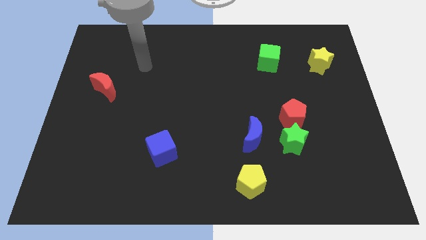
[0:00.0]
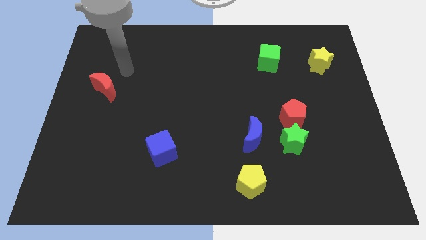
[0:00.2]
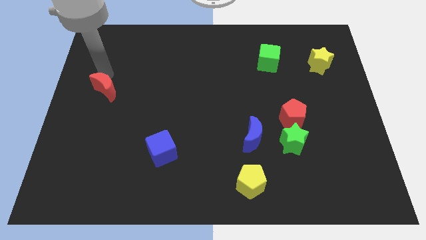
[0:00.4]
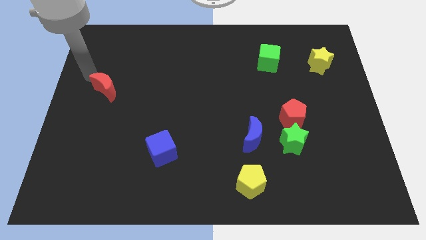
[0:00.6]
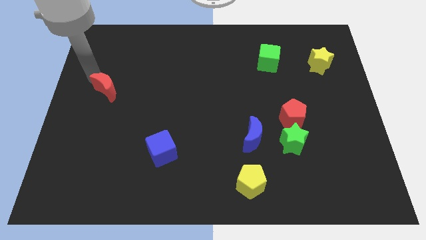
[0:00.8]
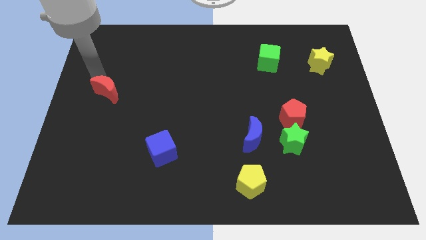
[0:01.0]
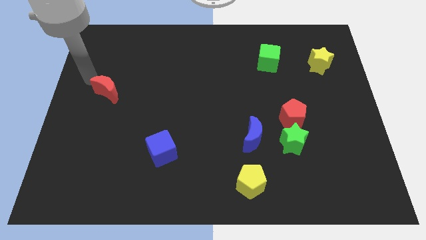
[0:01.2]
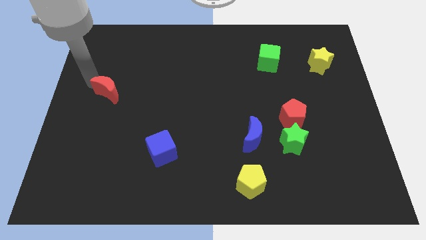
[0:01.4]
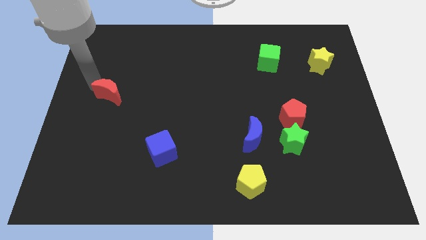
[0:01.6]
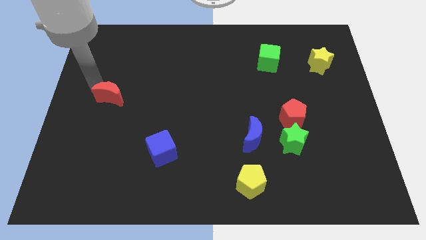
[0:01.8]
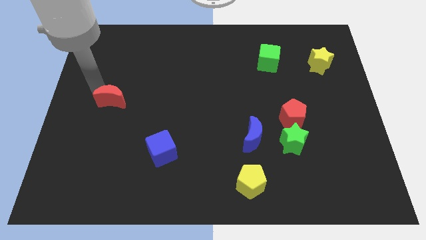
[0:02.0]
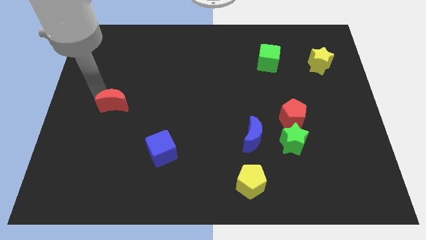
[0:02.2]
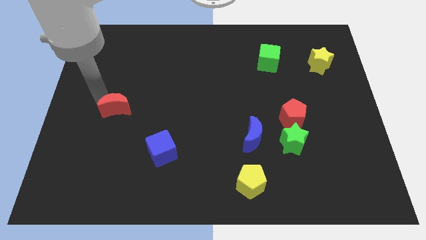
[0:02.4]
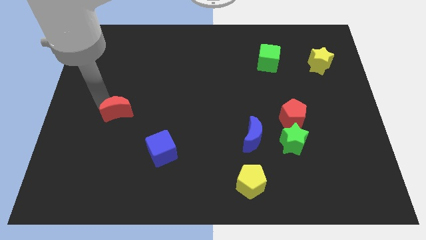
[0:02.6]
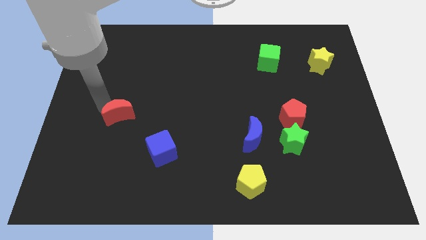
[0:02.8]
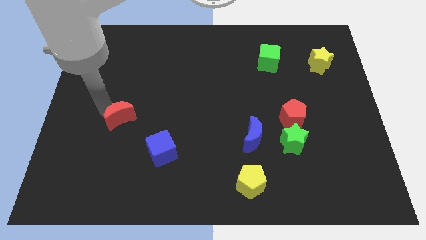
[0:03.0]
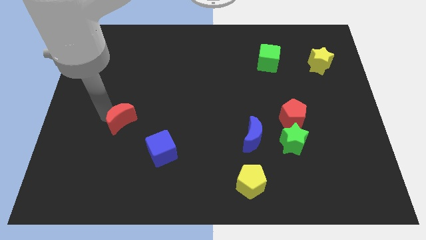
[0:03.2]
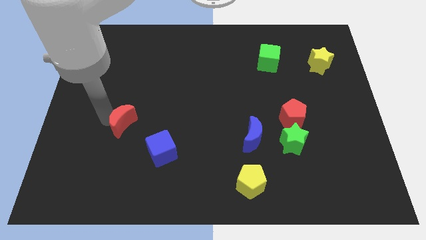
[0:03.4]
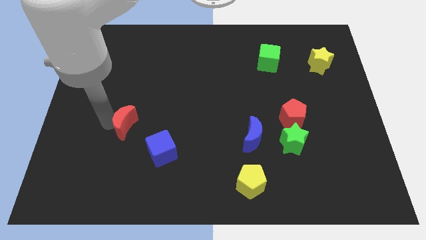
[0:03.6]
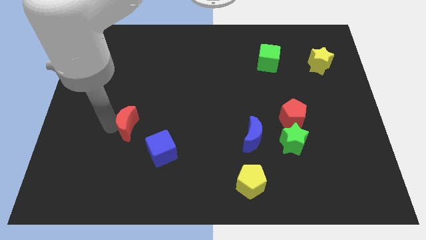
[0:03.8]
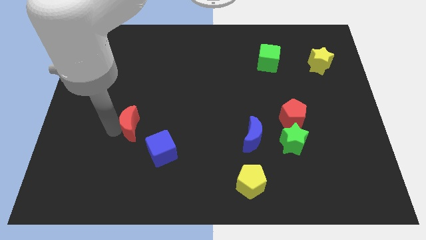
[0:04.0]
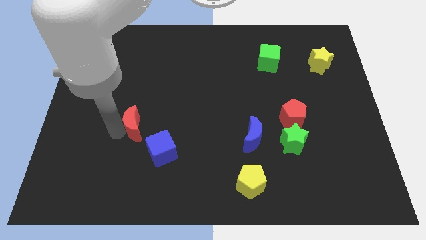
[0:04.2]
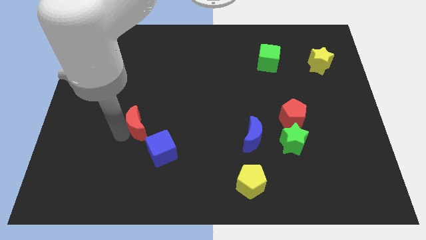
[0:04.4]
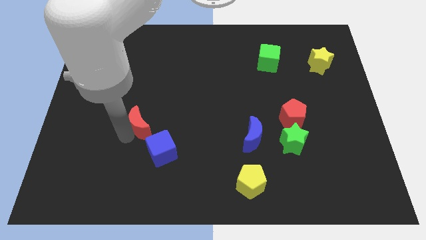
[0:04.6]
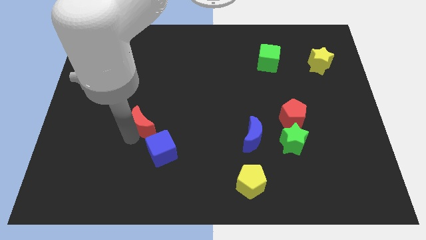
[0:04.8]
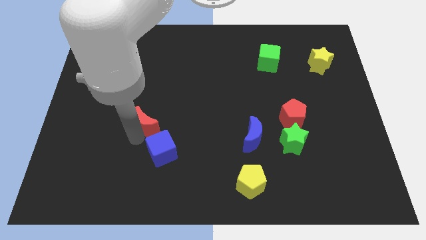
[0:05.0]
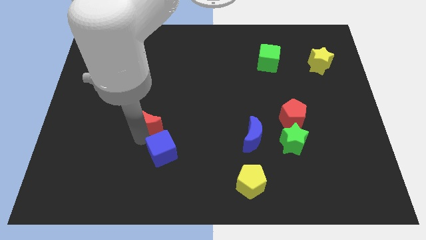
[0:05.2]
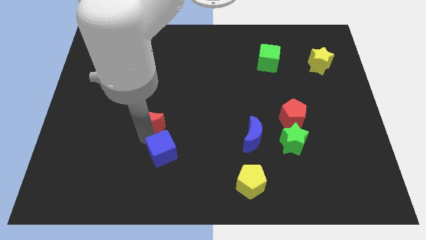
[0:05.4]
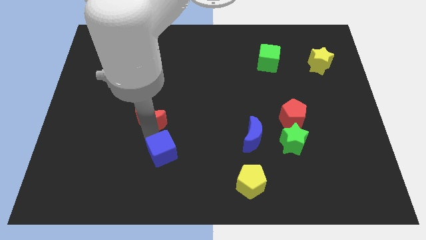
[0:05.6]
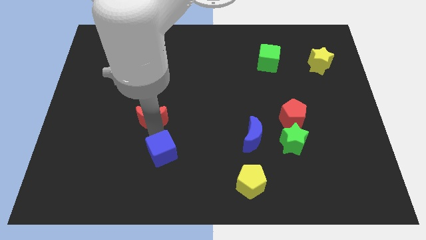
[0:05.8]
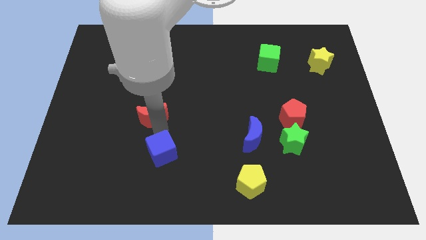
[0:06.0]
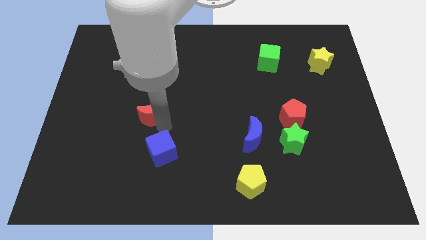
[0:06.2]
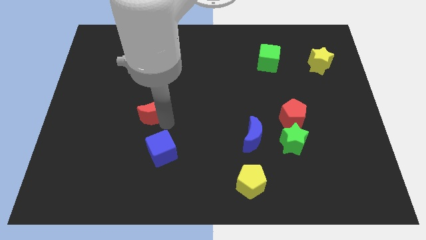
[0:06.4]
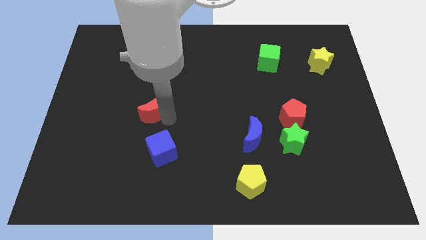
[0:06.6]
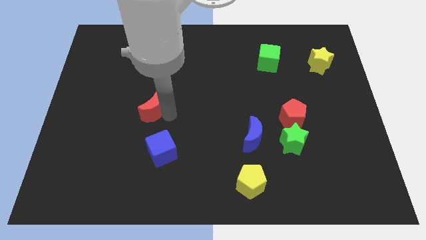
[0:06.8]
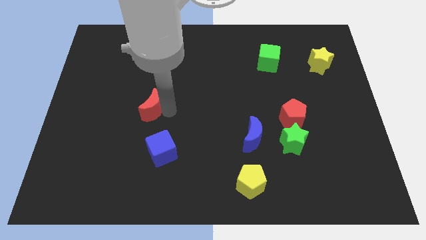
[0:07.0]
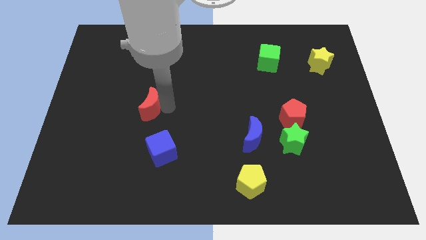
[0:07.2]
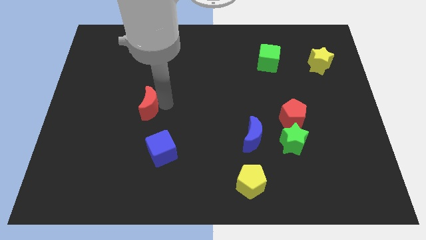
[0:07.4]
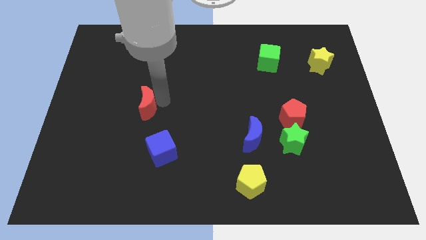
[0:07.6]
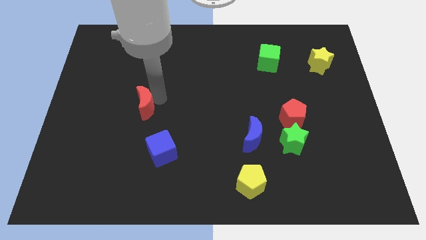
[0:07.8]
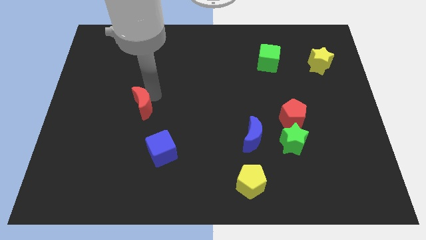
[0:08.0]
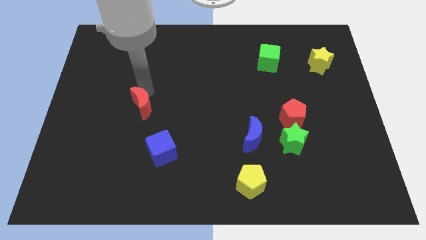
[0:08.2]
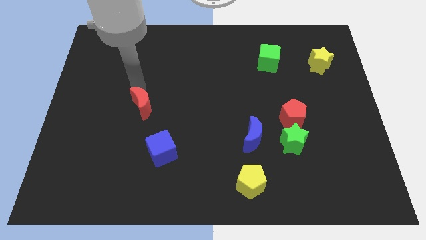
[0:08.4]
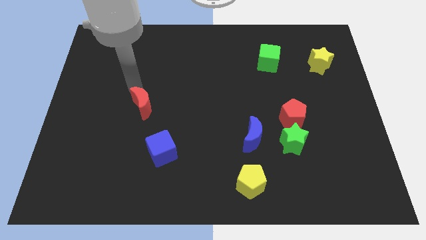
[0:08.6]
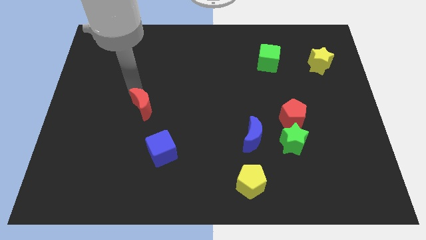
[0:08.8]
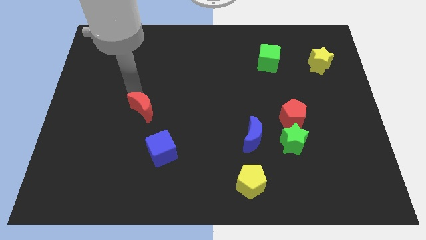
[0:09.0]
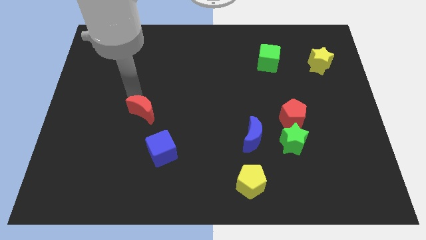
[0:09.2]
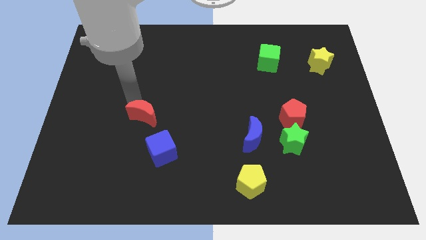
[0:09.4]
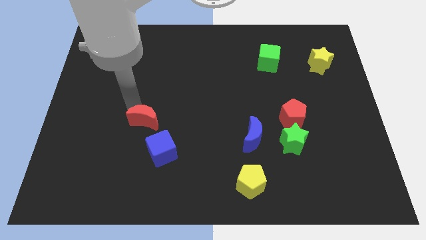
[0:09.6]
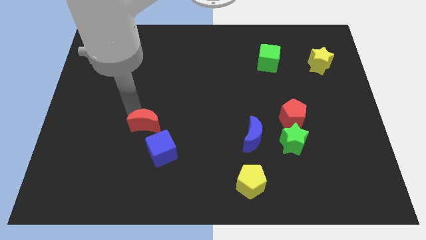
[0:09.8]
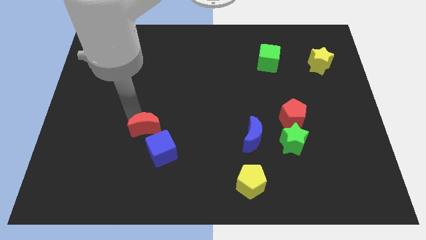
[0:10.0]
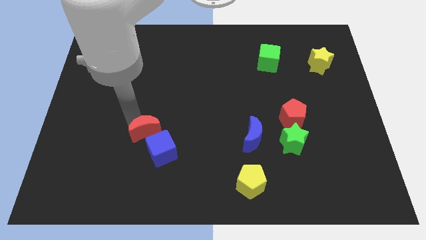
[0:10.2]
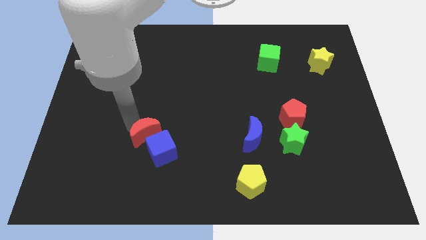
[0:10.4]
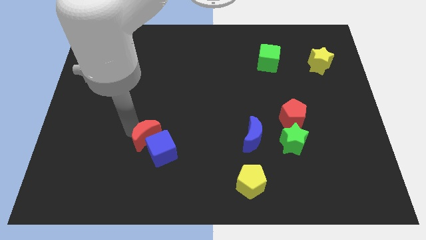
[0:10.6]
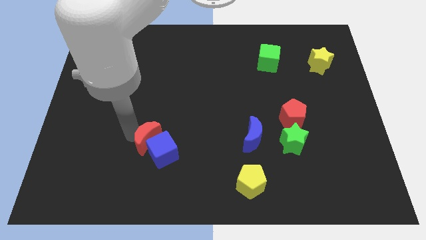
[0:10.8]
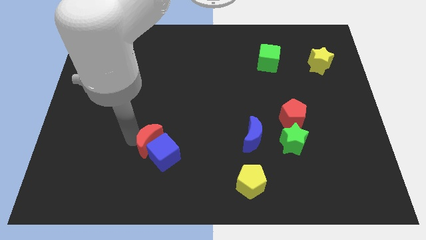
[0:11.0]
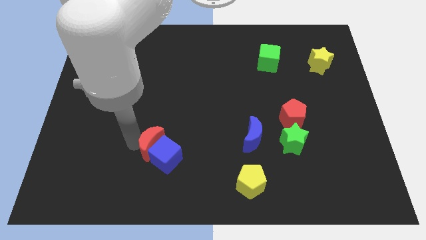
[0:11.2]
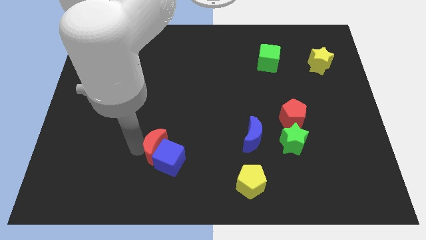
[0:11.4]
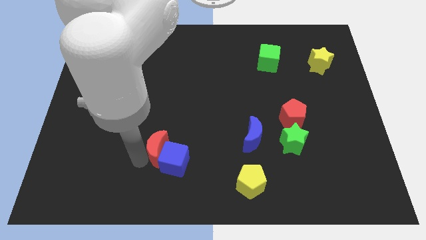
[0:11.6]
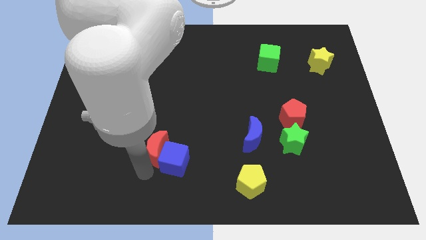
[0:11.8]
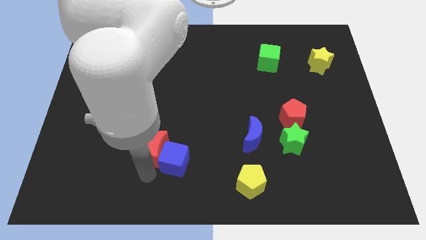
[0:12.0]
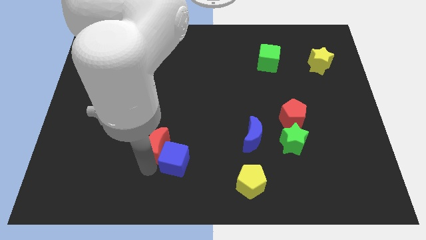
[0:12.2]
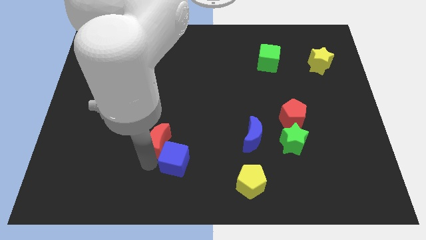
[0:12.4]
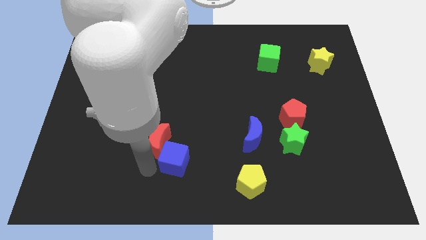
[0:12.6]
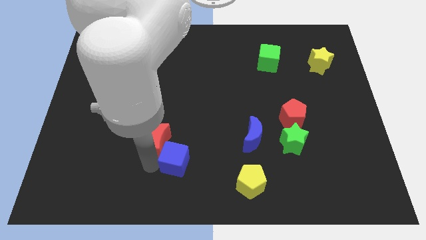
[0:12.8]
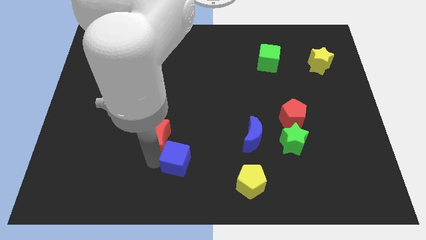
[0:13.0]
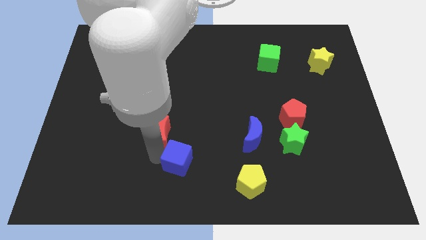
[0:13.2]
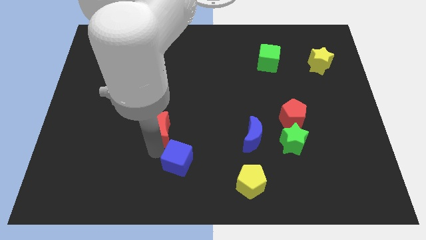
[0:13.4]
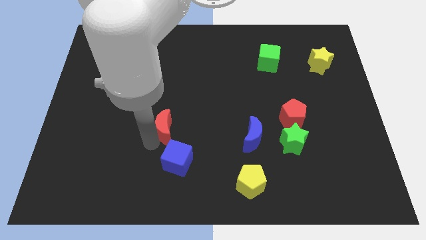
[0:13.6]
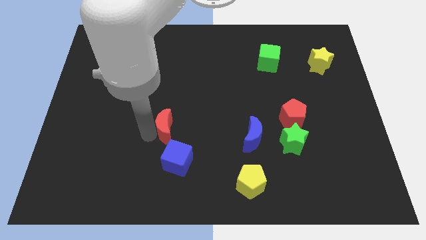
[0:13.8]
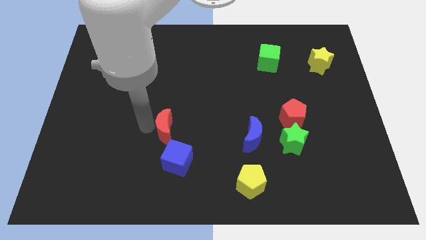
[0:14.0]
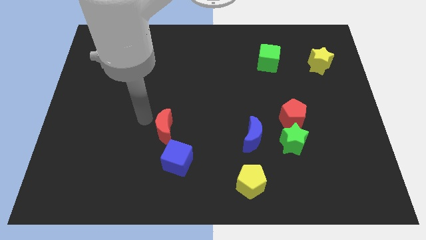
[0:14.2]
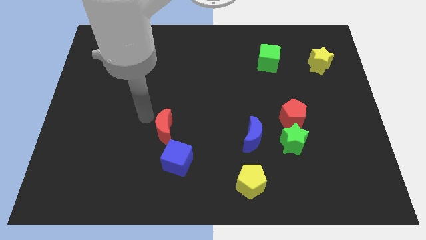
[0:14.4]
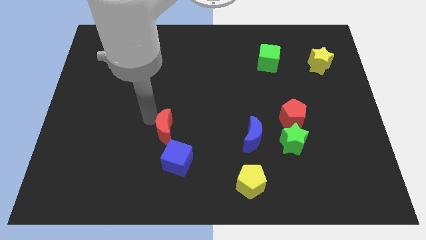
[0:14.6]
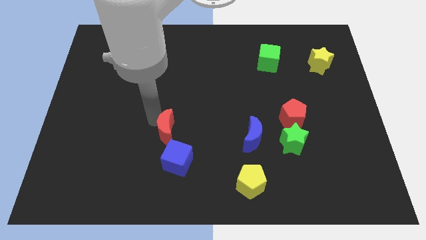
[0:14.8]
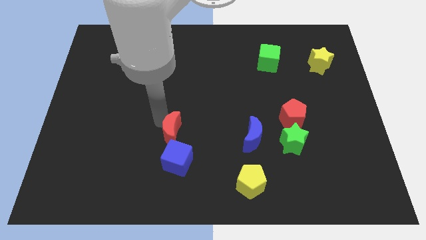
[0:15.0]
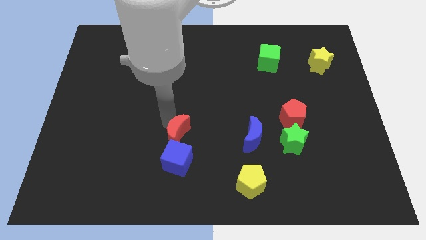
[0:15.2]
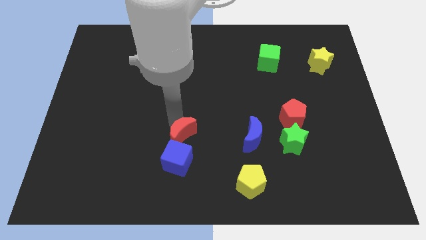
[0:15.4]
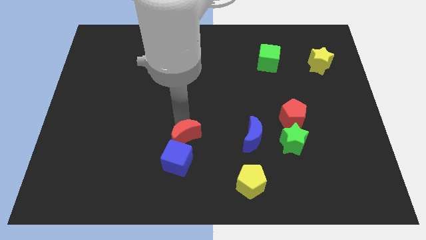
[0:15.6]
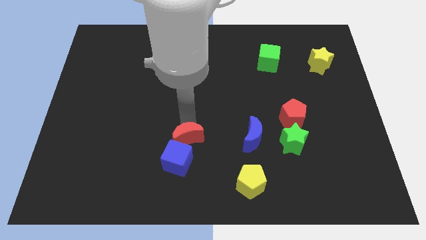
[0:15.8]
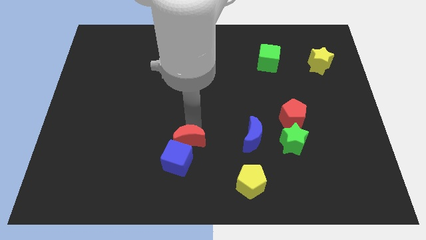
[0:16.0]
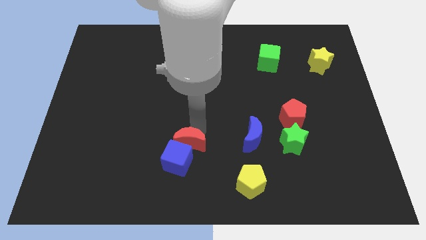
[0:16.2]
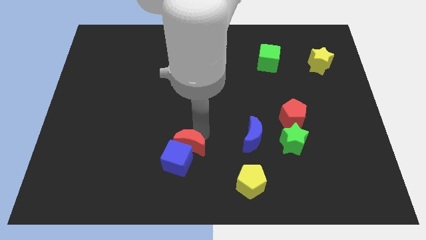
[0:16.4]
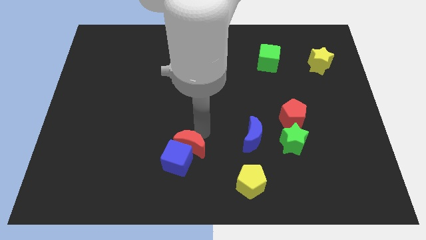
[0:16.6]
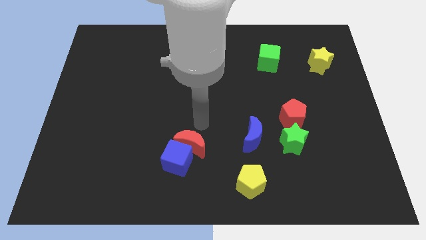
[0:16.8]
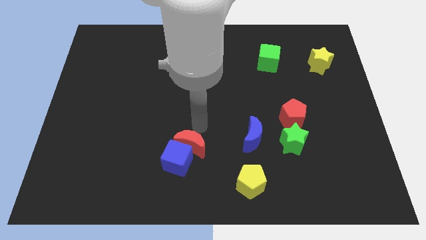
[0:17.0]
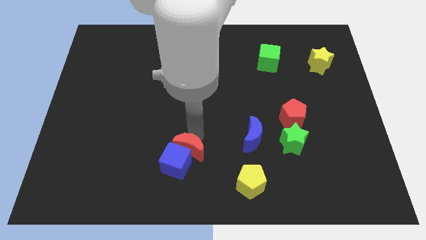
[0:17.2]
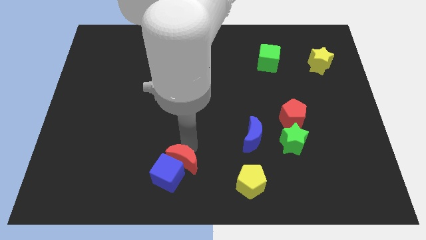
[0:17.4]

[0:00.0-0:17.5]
put the red moon to the bottom side
